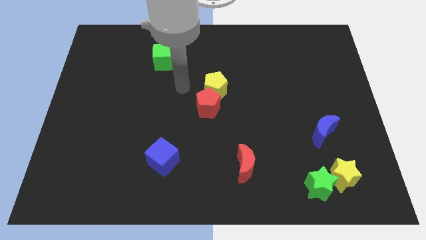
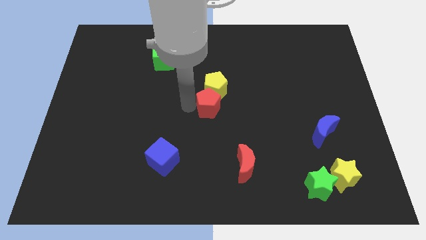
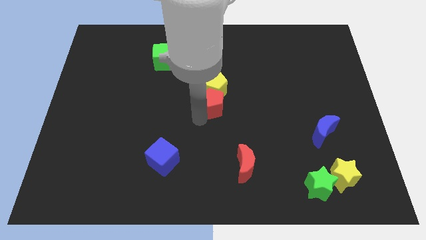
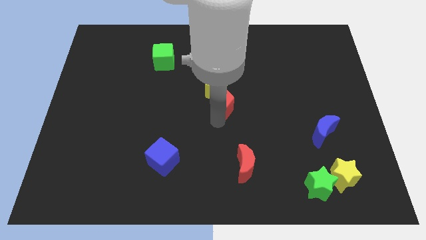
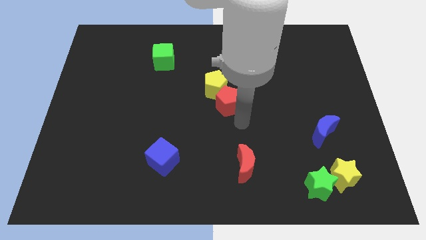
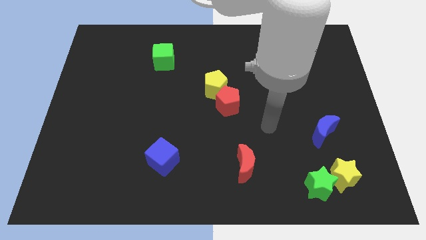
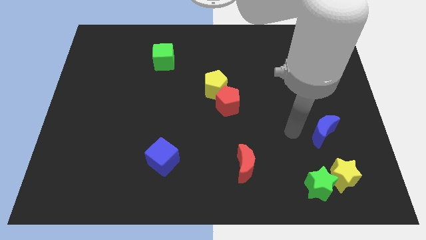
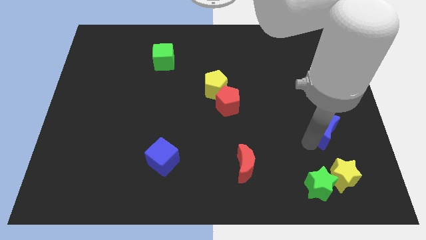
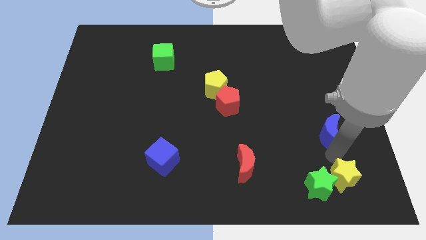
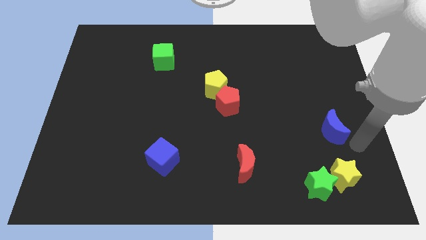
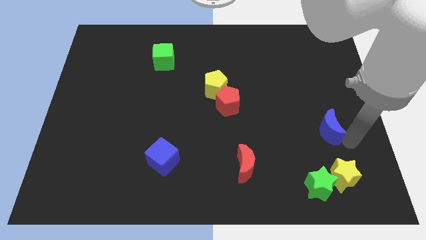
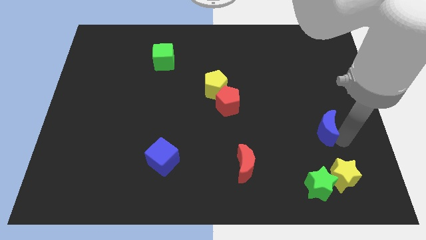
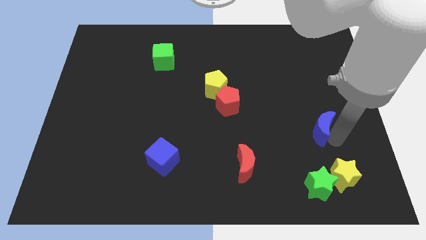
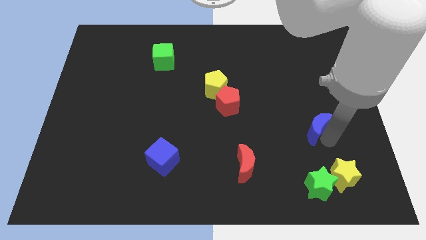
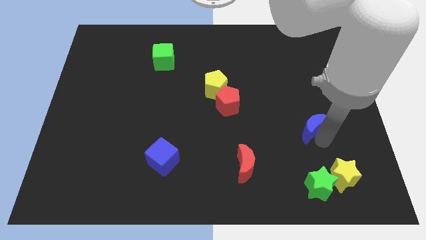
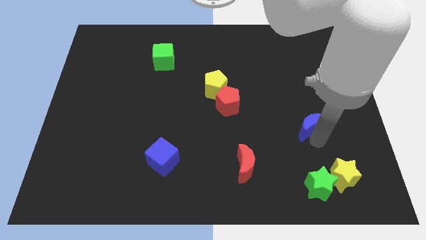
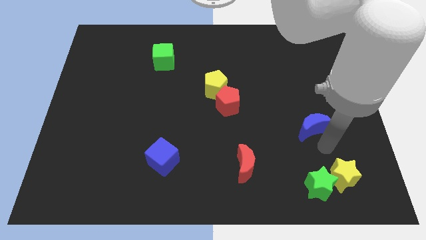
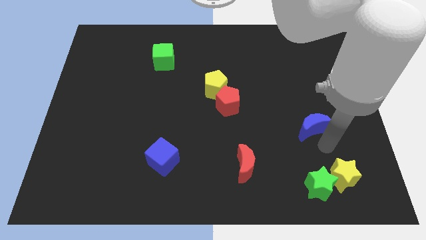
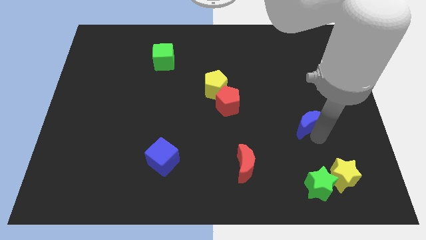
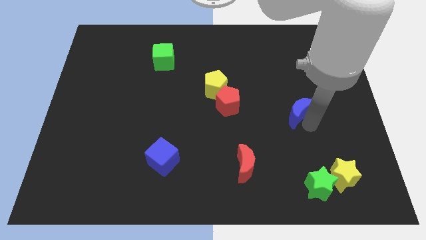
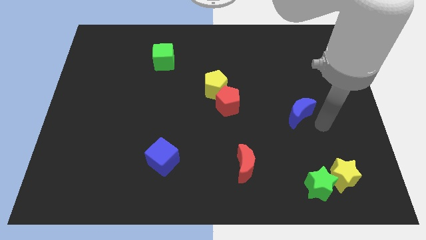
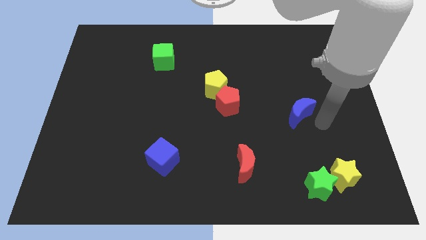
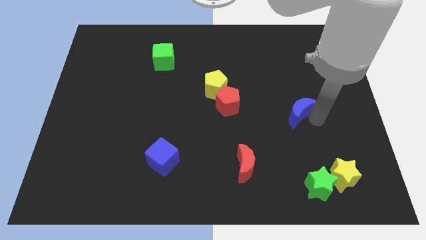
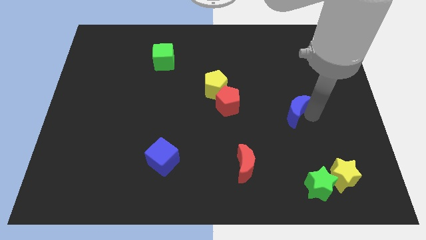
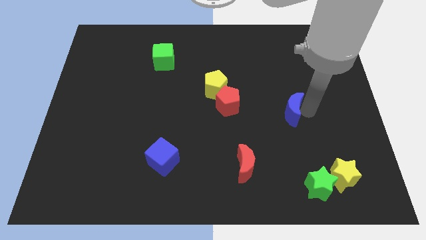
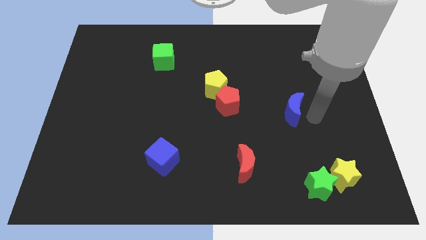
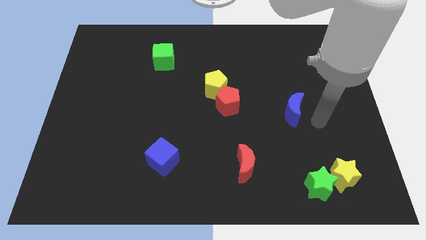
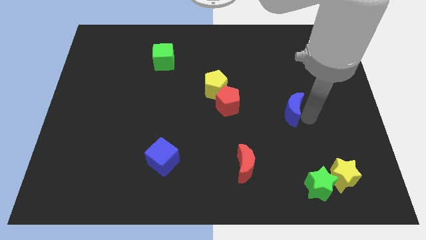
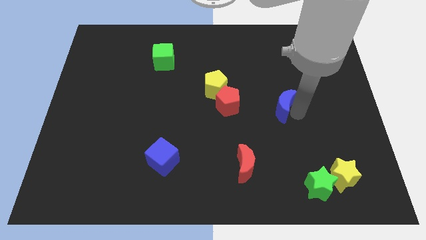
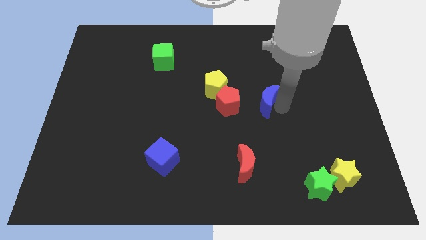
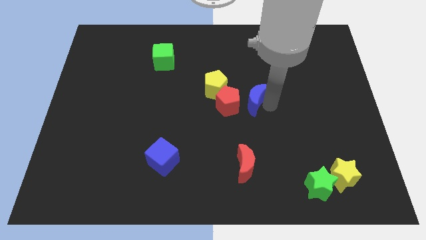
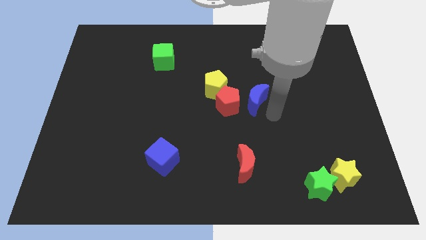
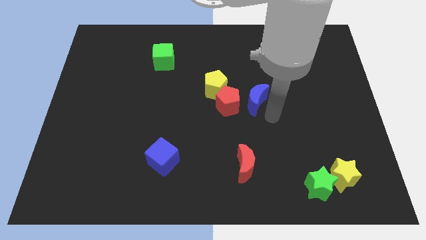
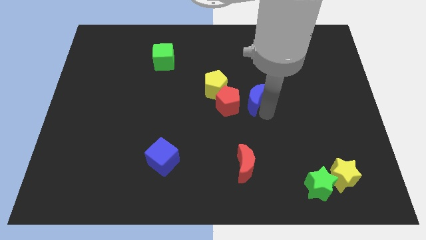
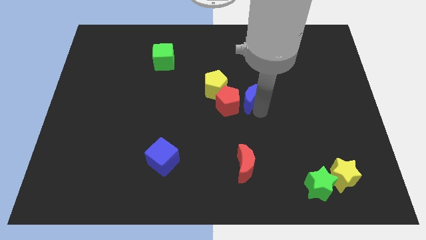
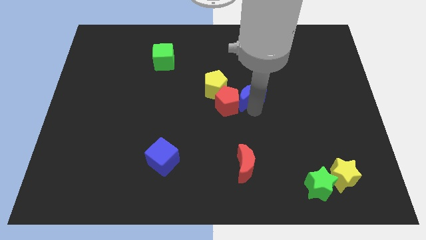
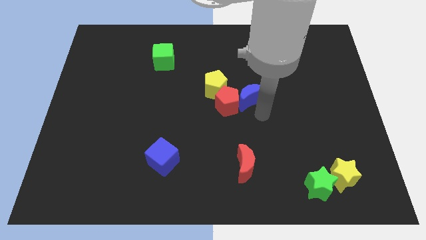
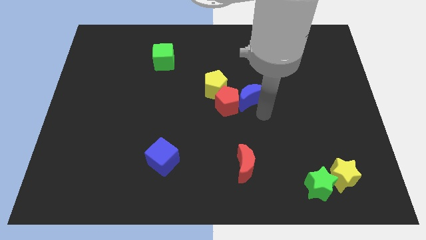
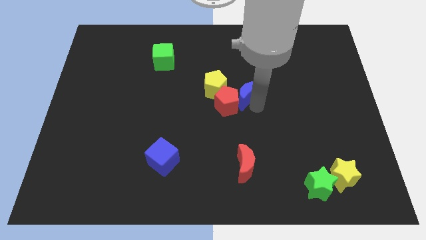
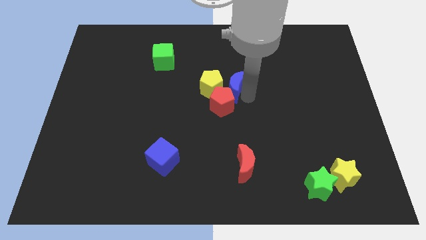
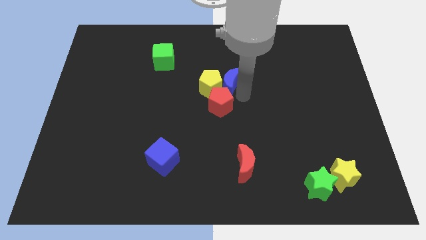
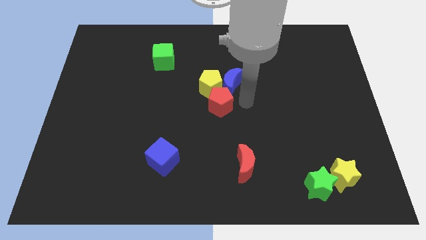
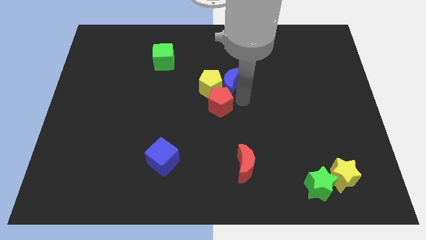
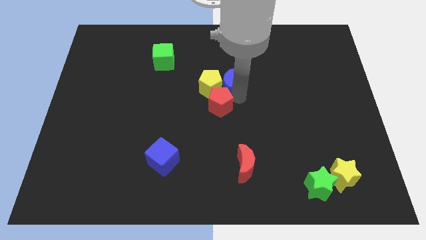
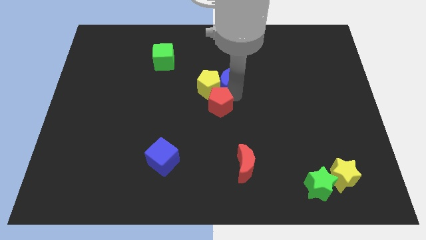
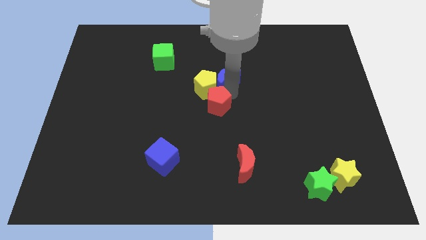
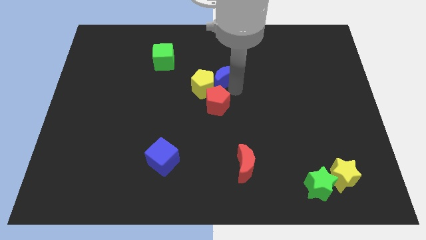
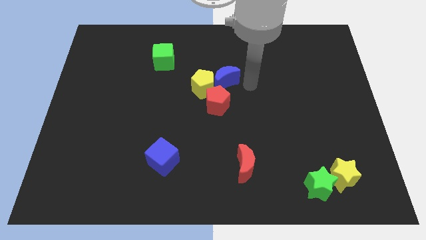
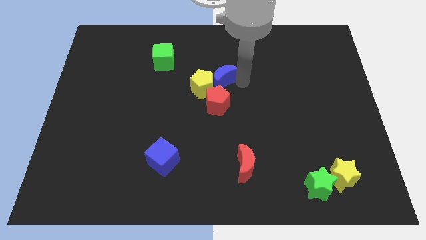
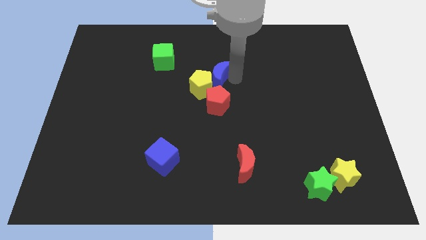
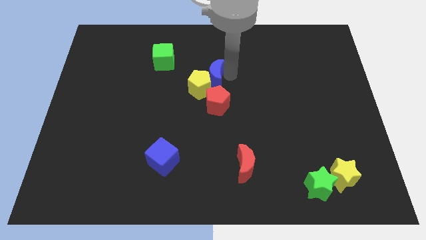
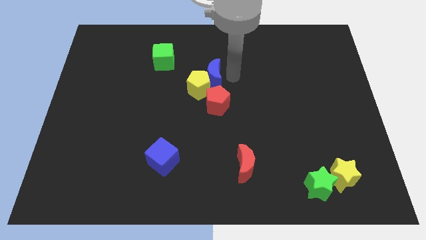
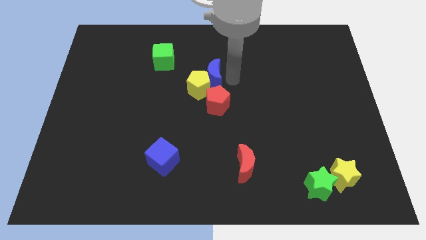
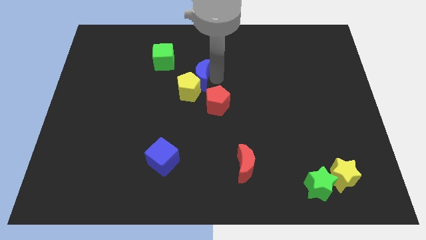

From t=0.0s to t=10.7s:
put the blue moon to the bottom right side of the green cube

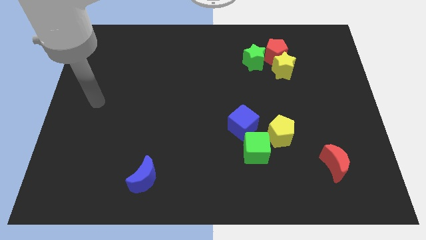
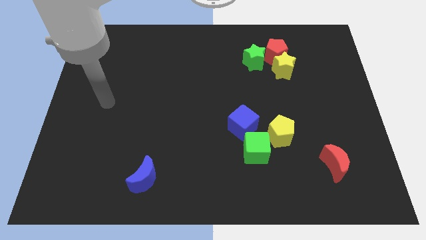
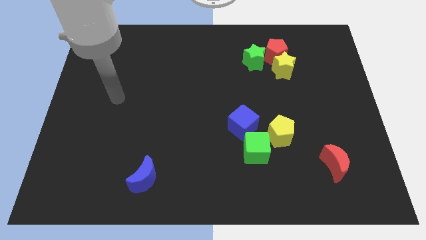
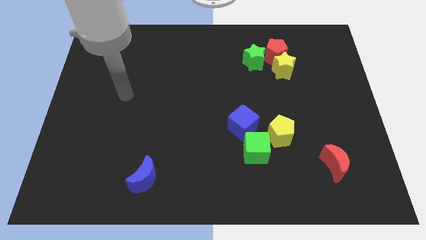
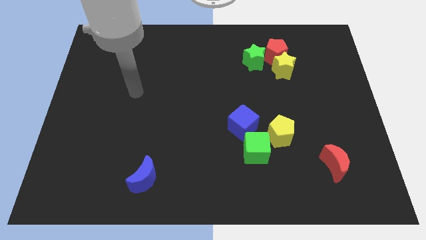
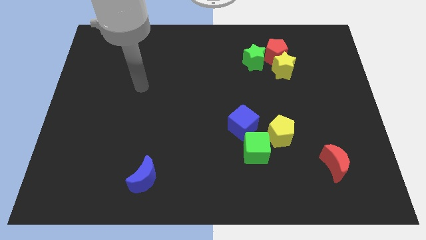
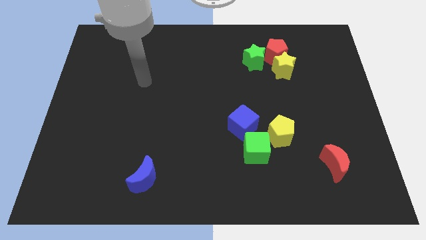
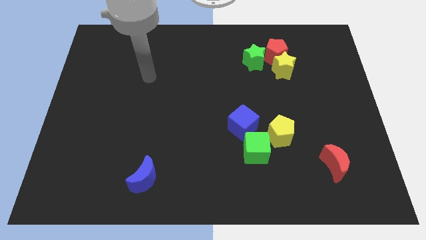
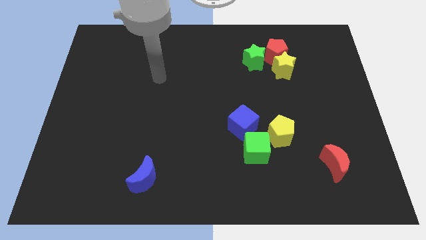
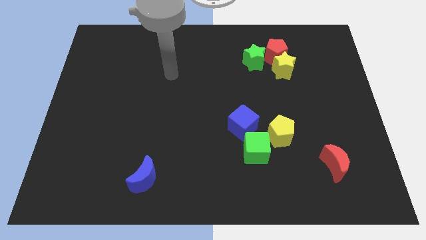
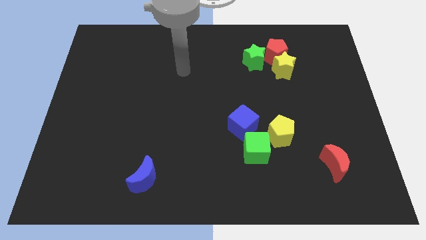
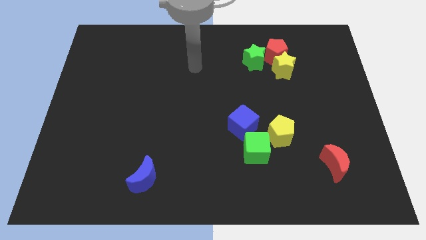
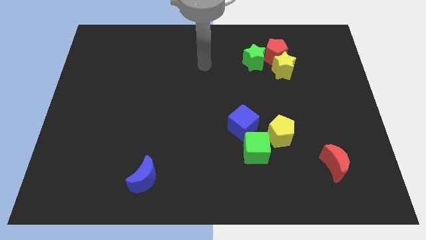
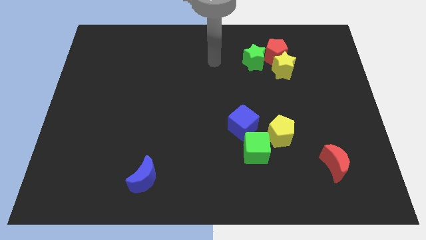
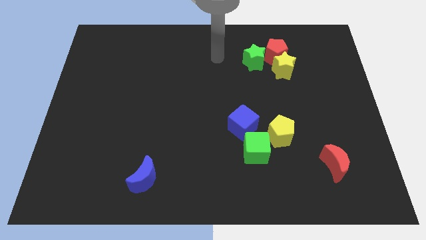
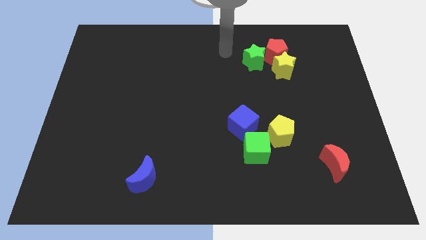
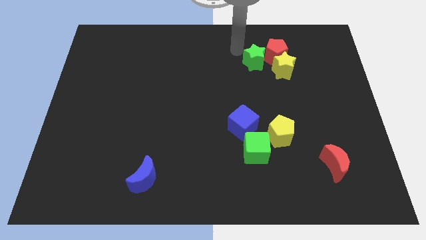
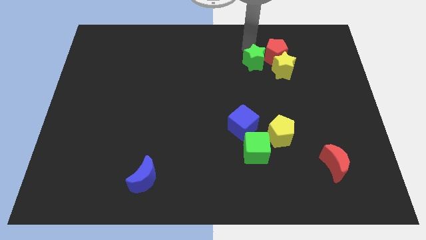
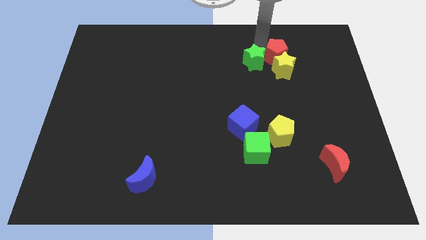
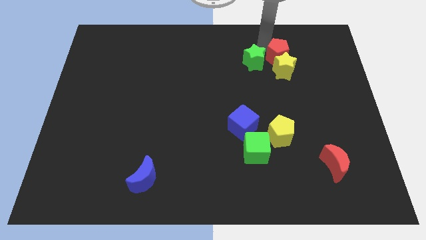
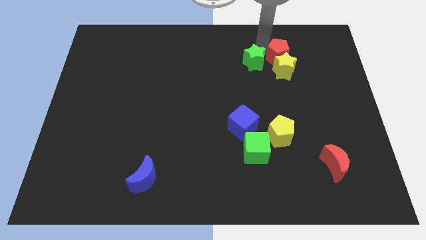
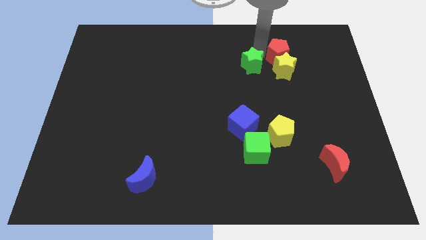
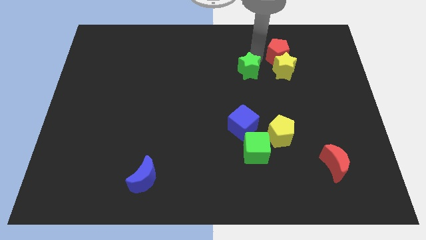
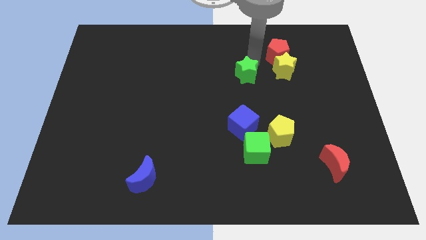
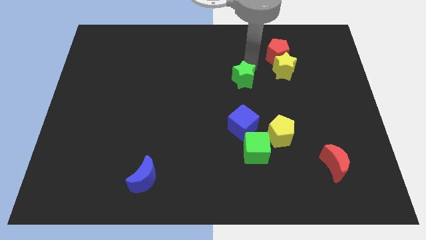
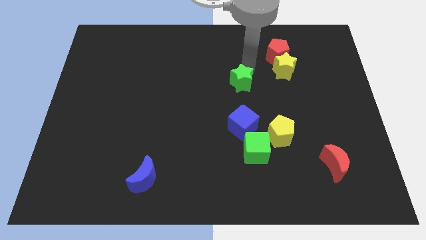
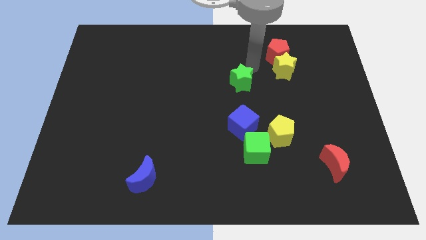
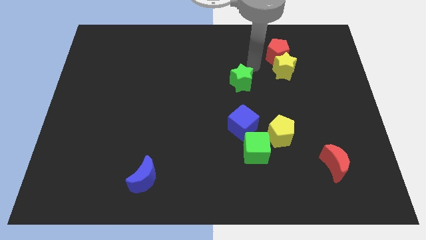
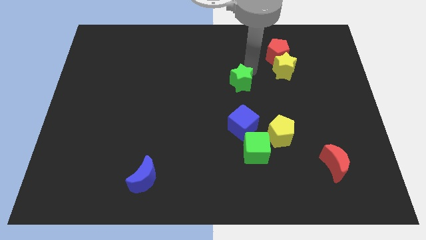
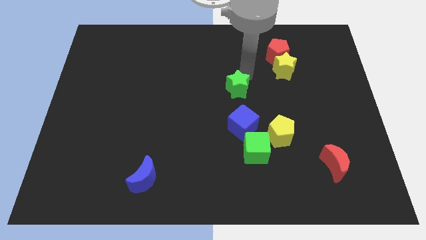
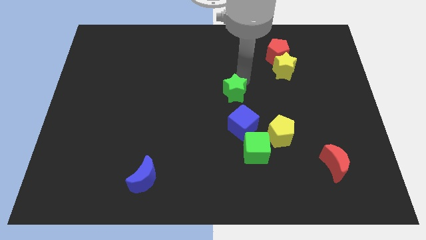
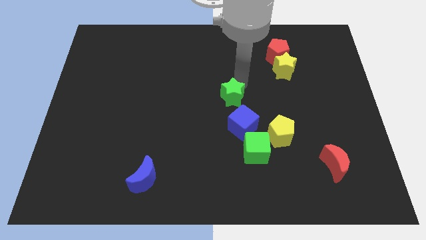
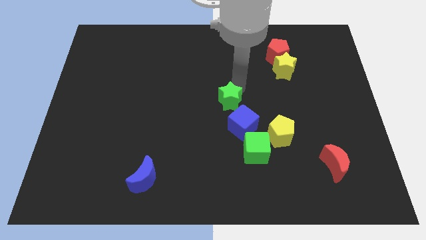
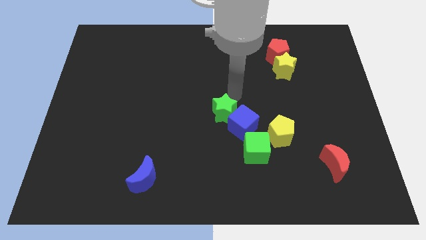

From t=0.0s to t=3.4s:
move the green star to the left of the blue cube
